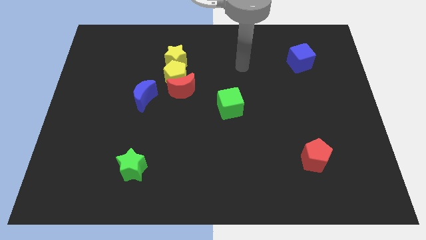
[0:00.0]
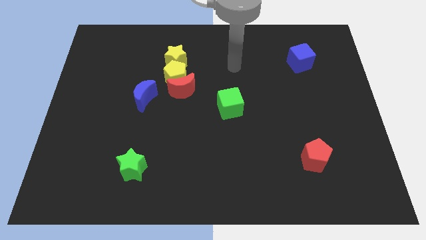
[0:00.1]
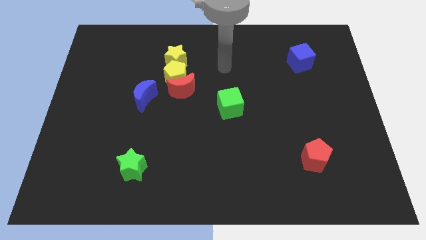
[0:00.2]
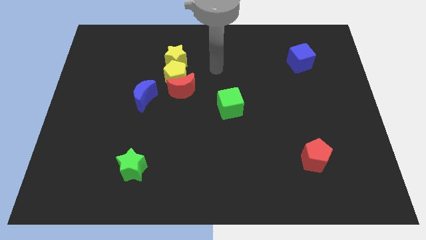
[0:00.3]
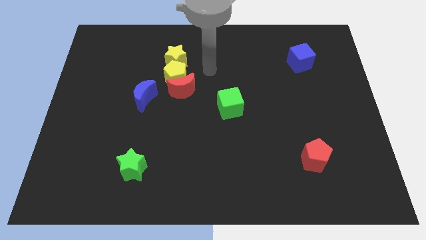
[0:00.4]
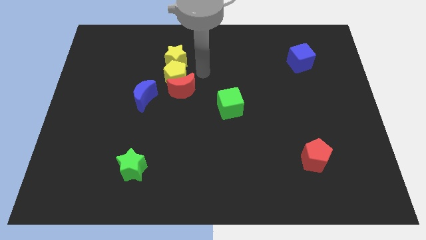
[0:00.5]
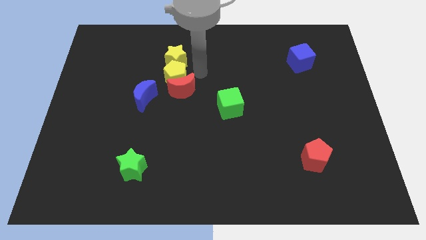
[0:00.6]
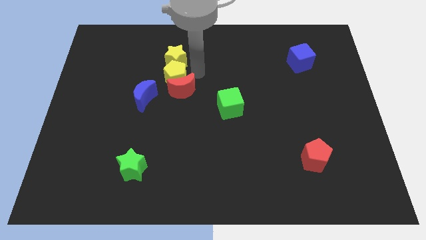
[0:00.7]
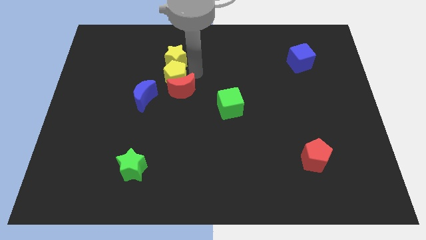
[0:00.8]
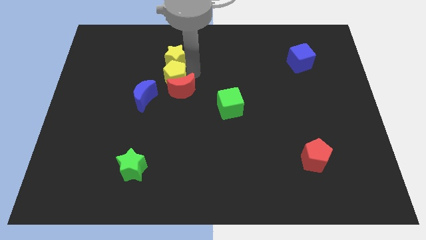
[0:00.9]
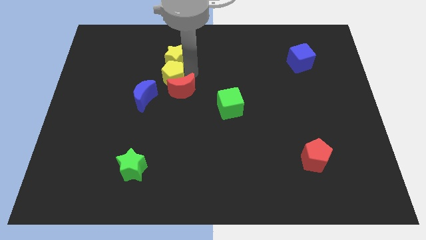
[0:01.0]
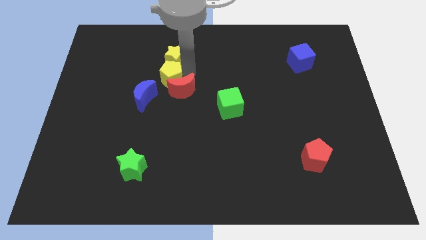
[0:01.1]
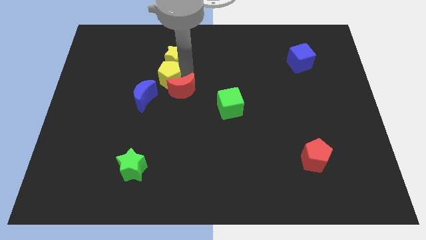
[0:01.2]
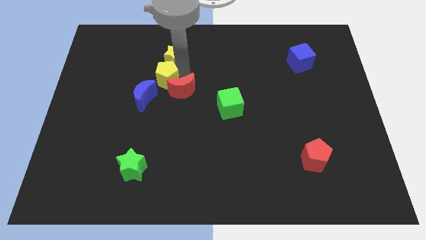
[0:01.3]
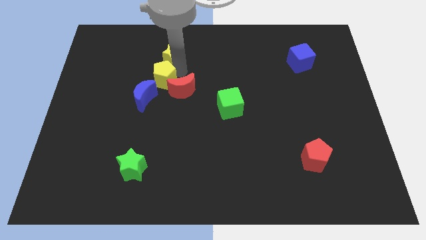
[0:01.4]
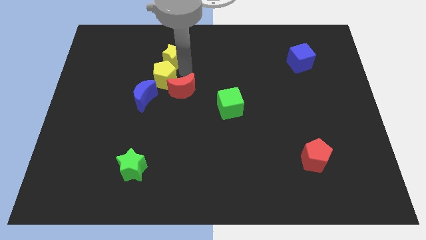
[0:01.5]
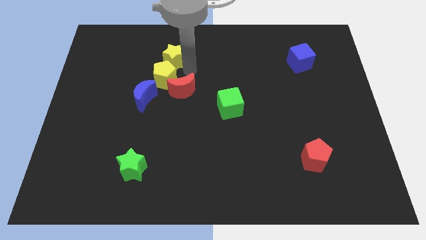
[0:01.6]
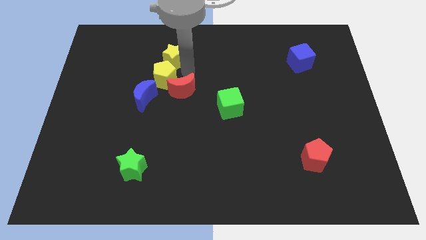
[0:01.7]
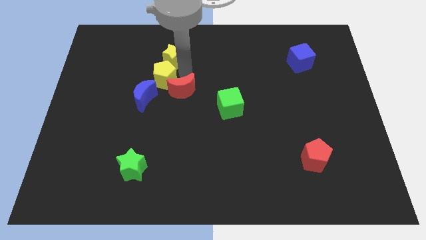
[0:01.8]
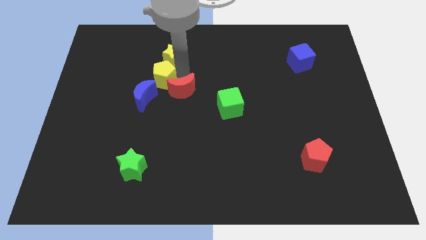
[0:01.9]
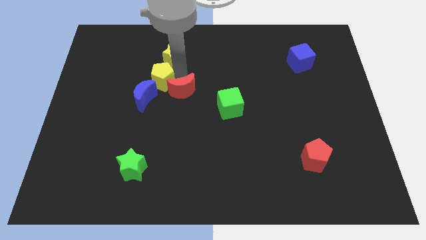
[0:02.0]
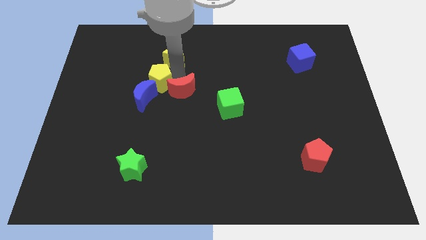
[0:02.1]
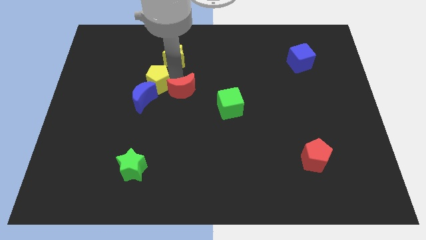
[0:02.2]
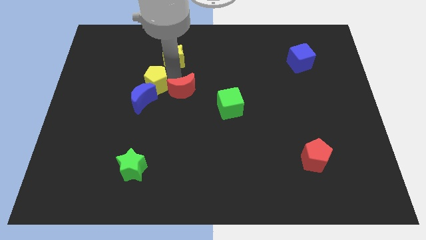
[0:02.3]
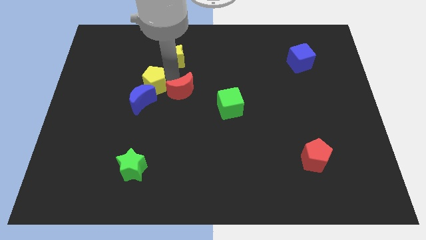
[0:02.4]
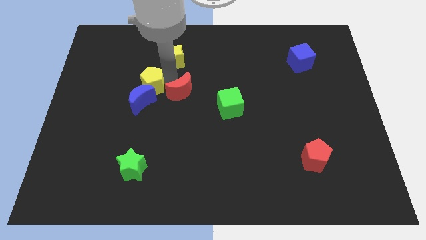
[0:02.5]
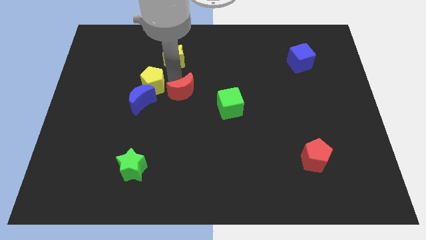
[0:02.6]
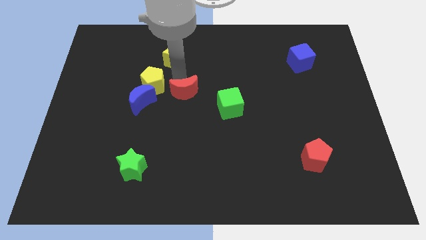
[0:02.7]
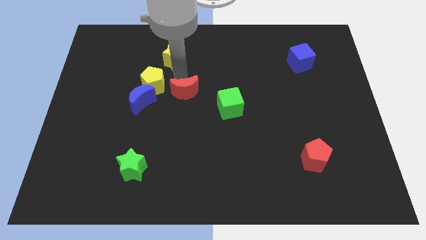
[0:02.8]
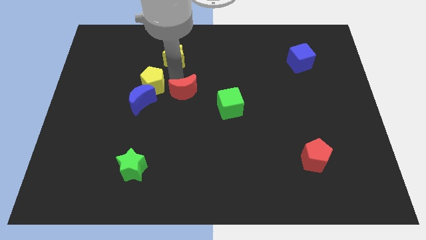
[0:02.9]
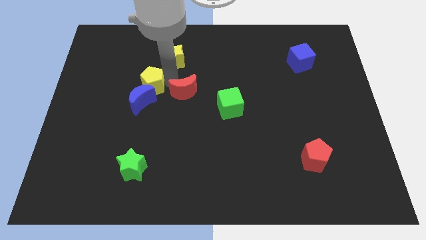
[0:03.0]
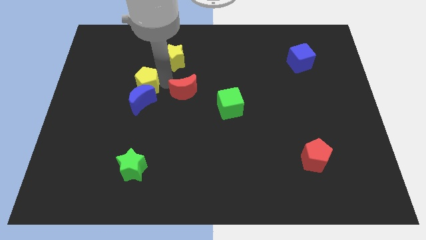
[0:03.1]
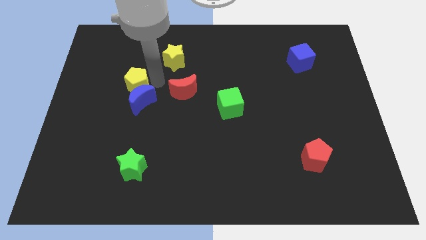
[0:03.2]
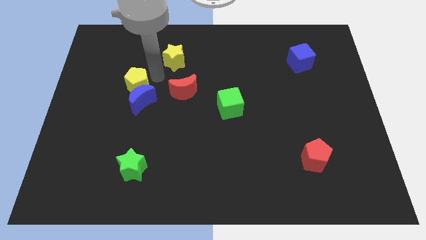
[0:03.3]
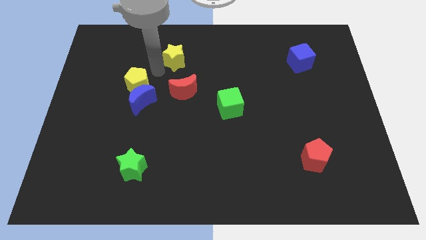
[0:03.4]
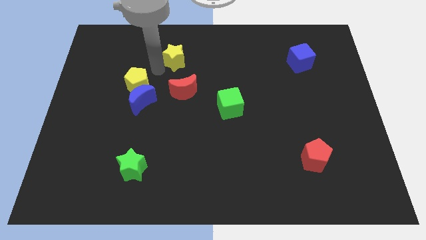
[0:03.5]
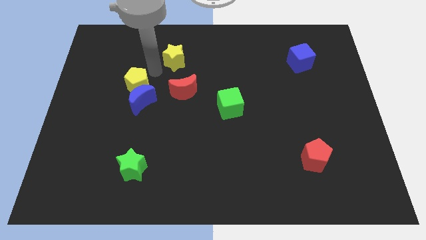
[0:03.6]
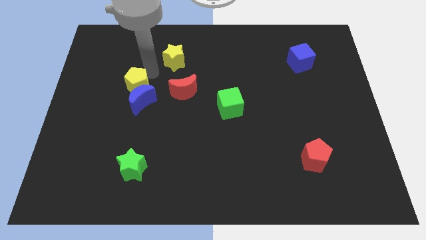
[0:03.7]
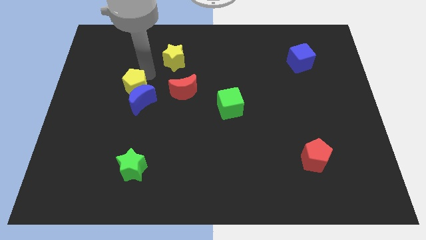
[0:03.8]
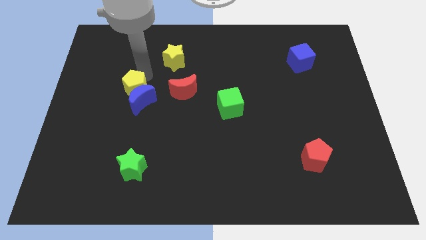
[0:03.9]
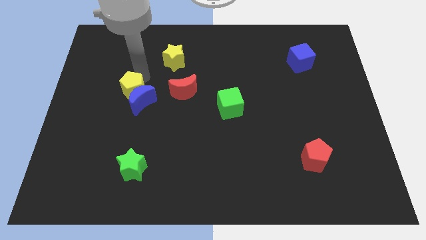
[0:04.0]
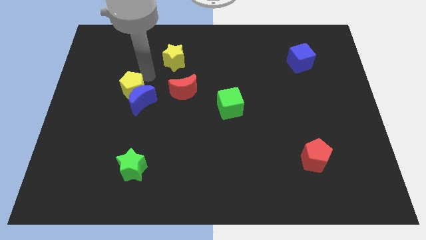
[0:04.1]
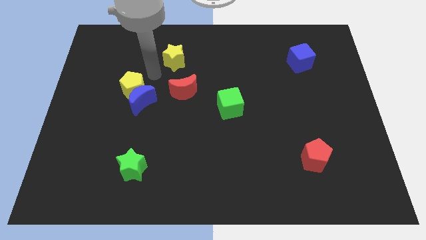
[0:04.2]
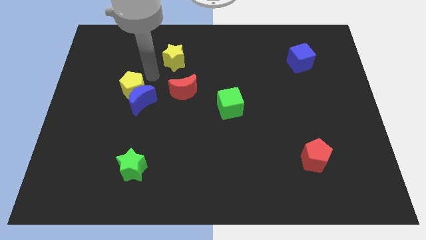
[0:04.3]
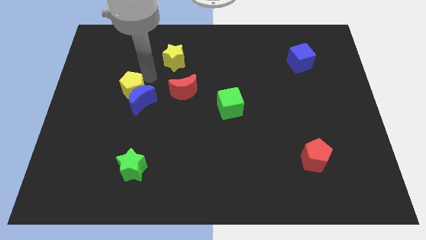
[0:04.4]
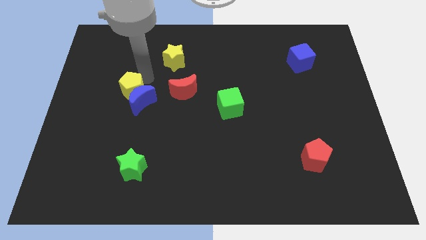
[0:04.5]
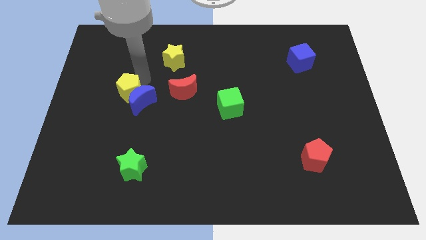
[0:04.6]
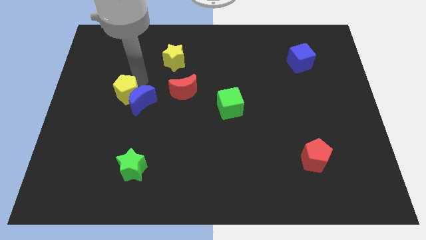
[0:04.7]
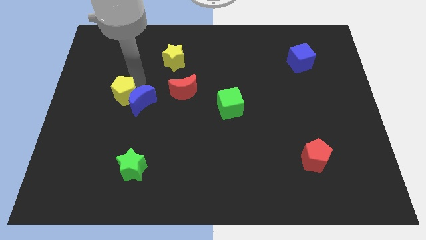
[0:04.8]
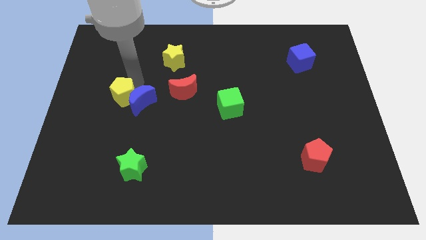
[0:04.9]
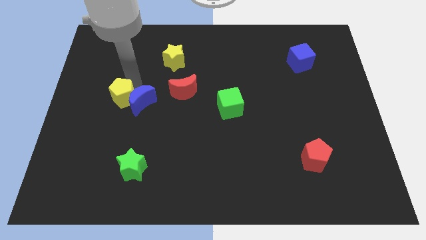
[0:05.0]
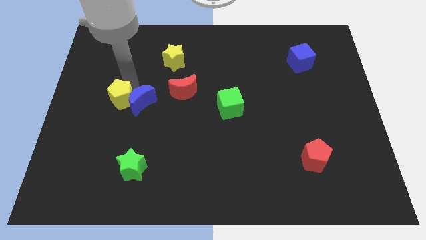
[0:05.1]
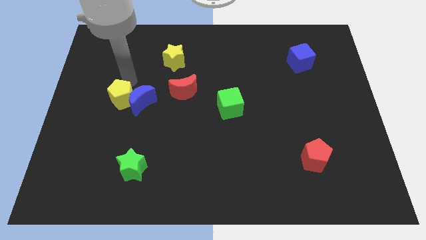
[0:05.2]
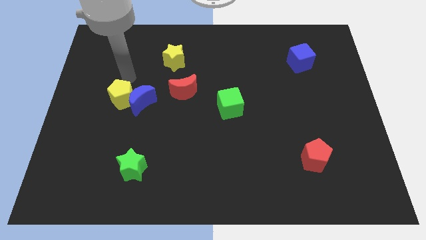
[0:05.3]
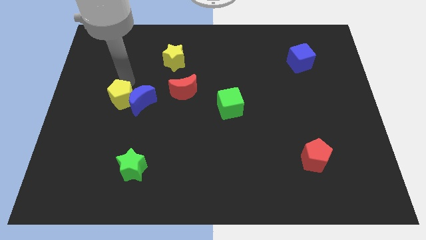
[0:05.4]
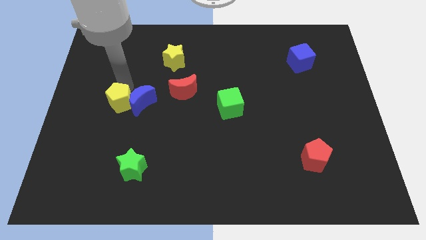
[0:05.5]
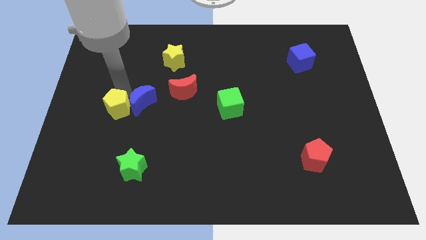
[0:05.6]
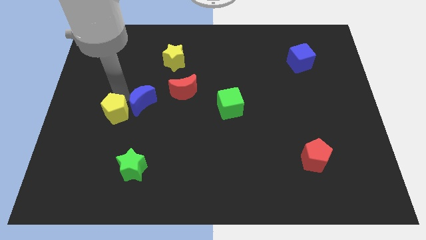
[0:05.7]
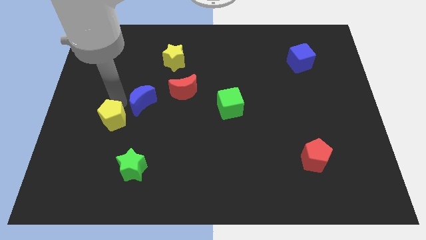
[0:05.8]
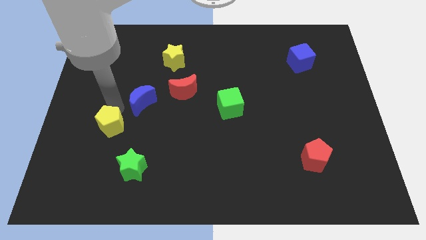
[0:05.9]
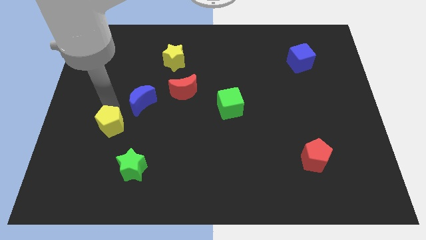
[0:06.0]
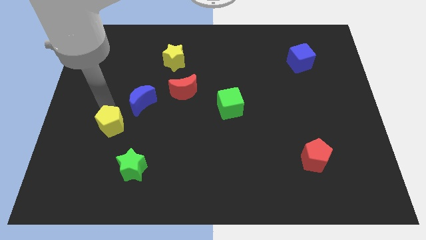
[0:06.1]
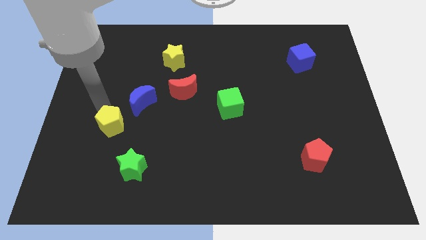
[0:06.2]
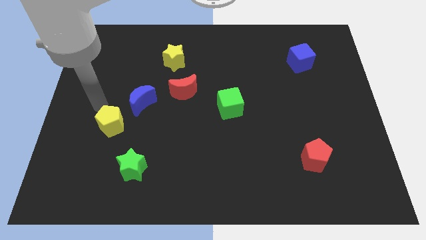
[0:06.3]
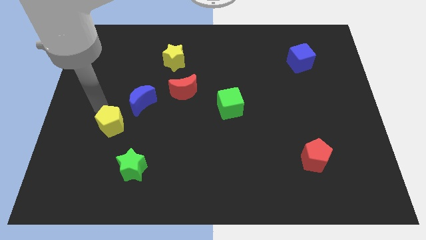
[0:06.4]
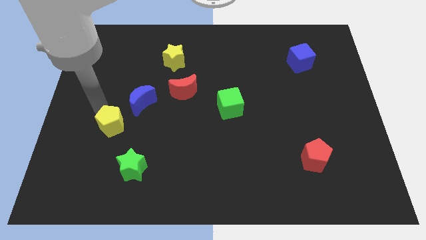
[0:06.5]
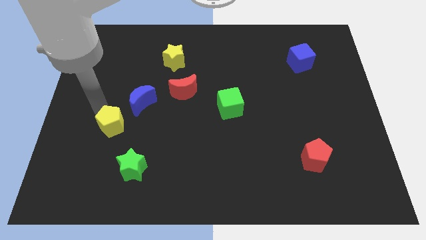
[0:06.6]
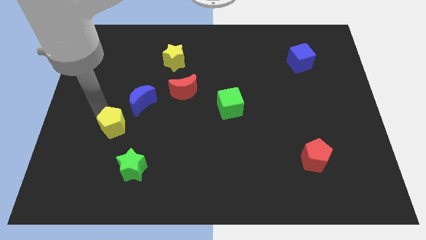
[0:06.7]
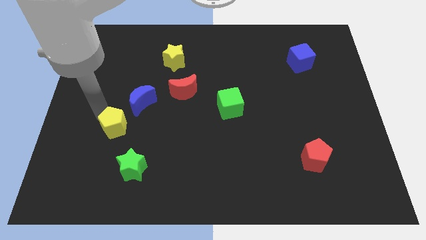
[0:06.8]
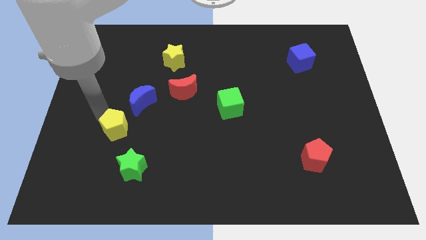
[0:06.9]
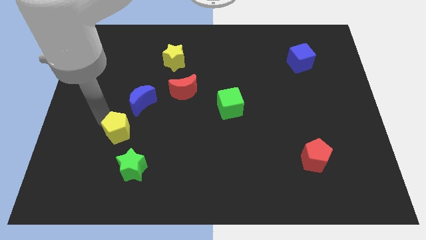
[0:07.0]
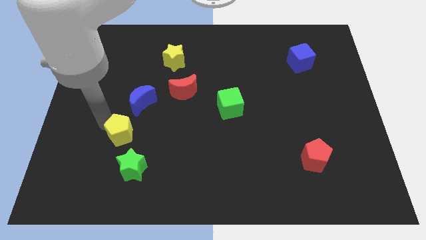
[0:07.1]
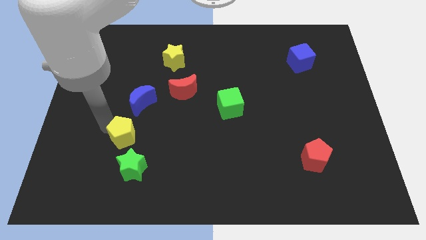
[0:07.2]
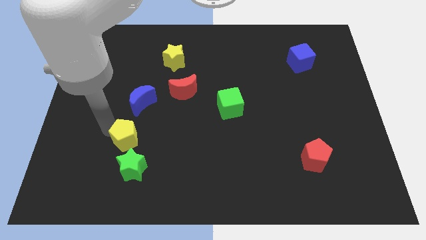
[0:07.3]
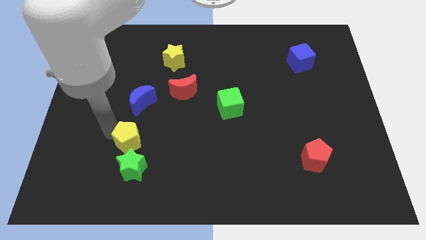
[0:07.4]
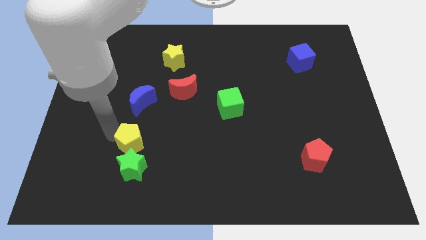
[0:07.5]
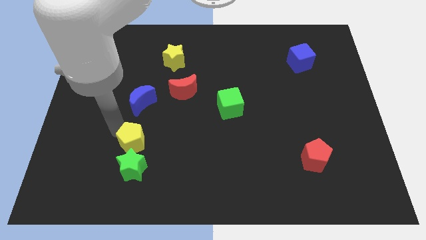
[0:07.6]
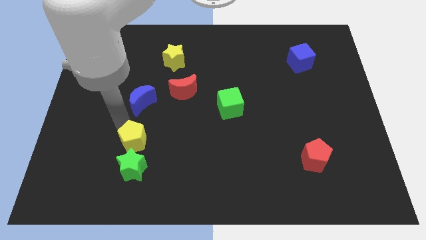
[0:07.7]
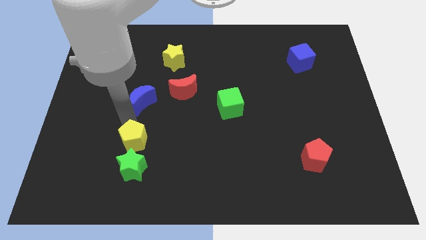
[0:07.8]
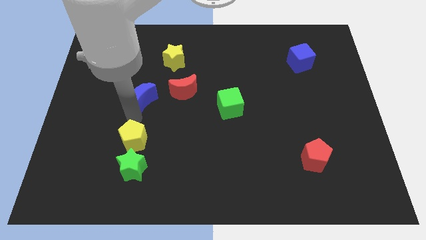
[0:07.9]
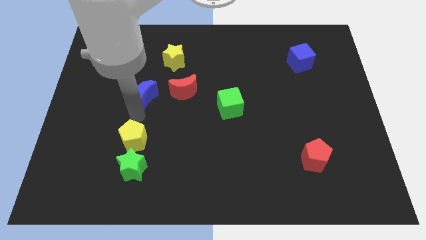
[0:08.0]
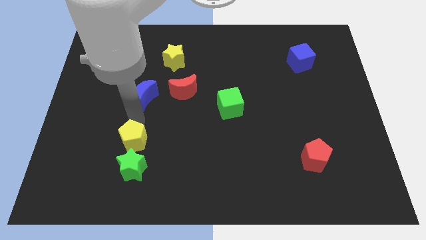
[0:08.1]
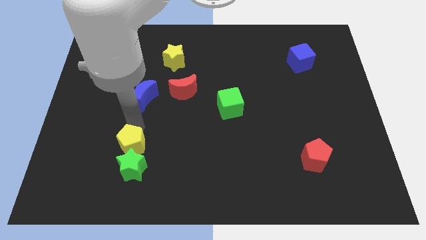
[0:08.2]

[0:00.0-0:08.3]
push the yellow pentagon towards the green star
